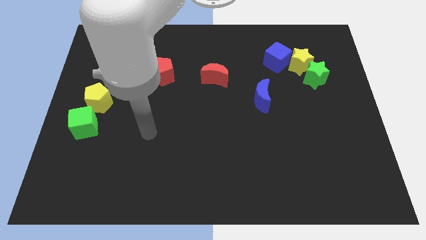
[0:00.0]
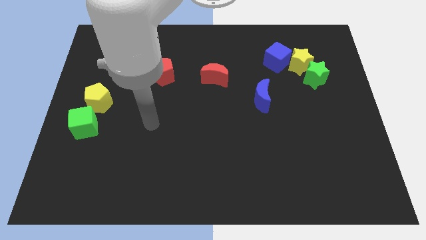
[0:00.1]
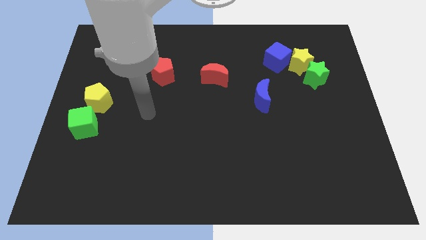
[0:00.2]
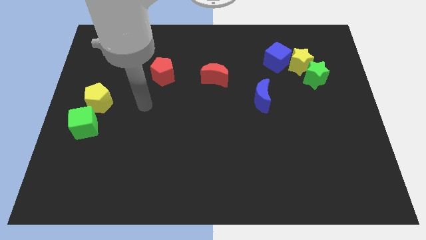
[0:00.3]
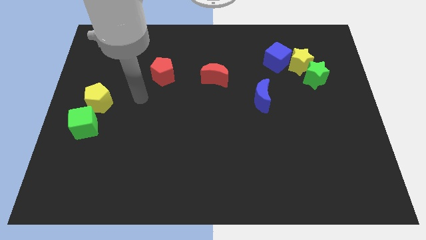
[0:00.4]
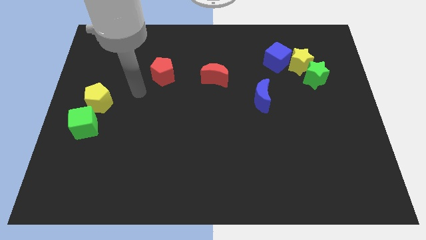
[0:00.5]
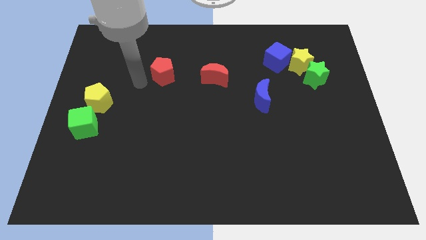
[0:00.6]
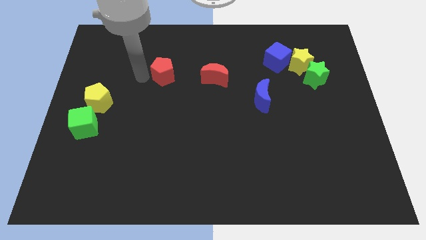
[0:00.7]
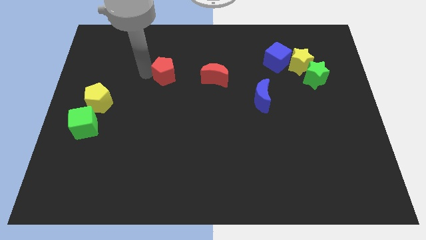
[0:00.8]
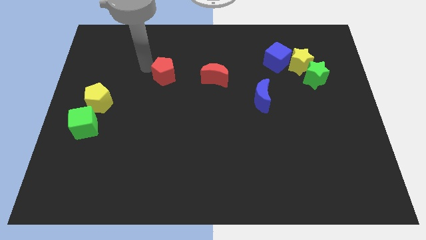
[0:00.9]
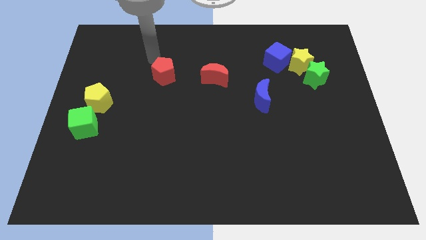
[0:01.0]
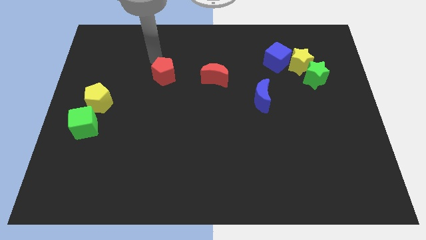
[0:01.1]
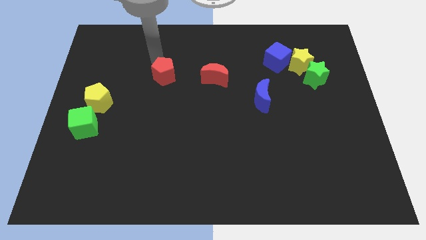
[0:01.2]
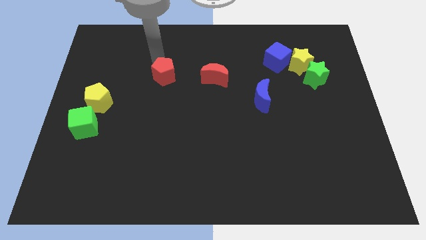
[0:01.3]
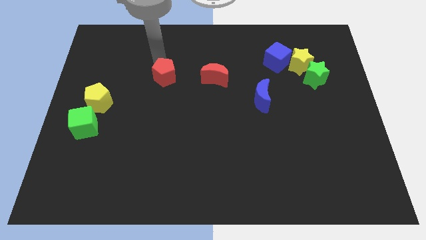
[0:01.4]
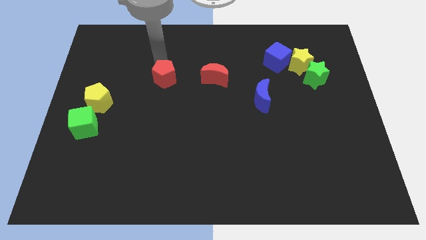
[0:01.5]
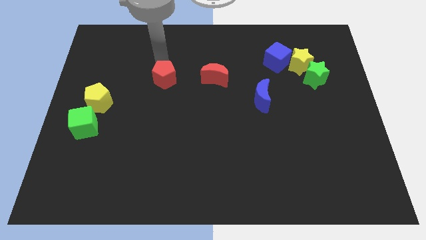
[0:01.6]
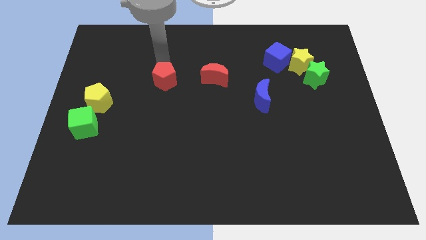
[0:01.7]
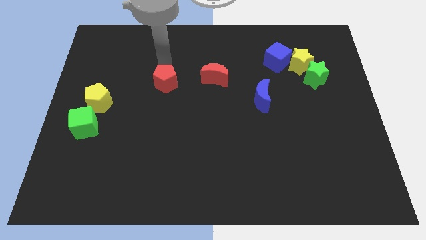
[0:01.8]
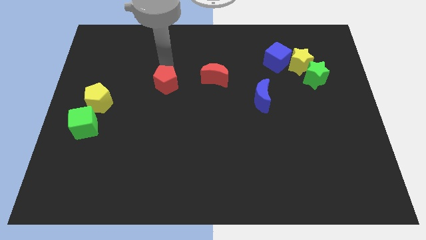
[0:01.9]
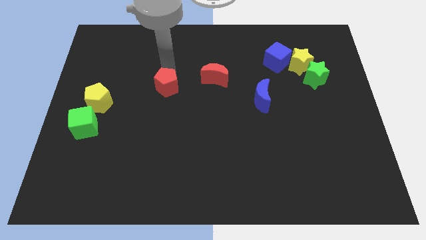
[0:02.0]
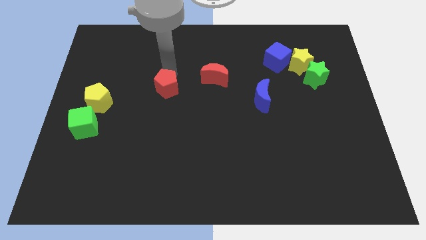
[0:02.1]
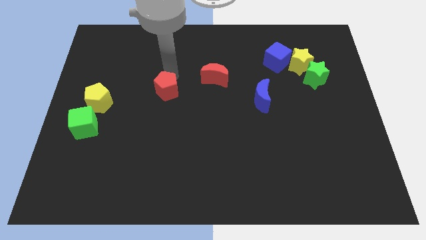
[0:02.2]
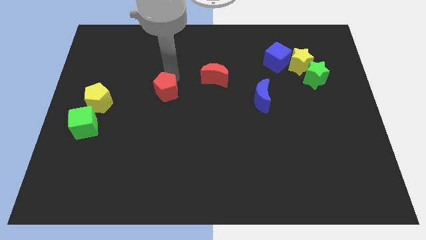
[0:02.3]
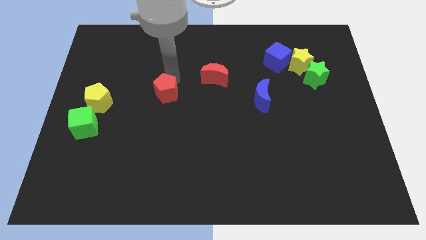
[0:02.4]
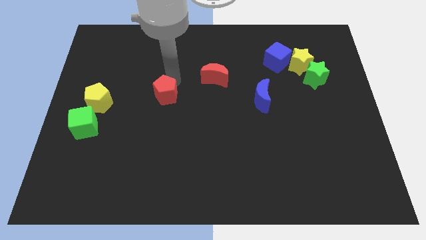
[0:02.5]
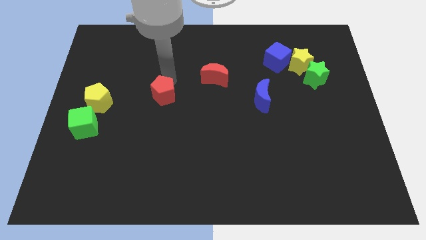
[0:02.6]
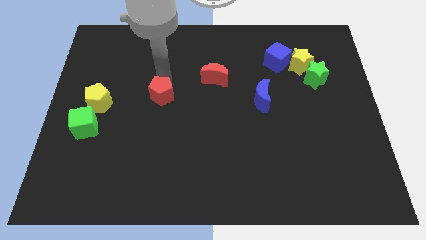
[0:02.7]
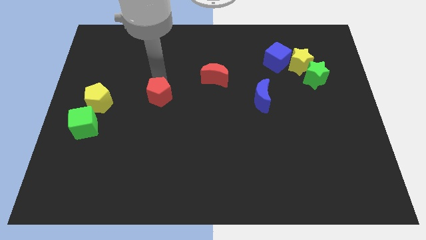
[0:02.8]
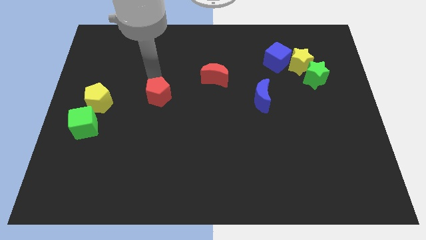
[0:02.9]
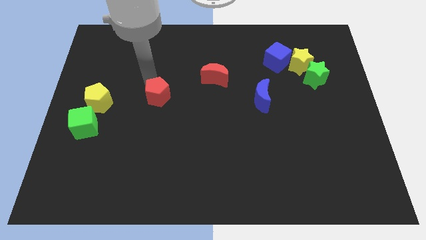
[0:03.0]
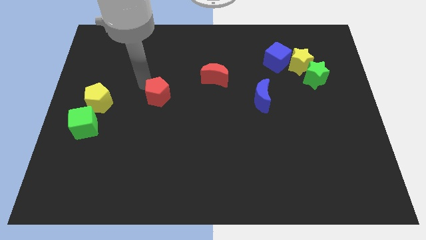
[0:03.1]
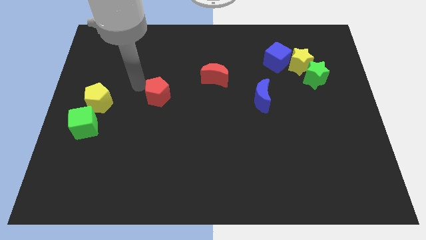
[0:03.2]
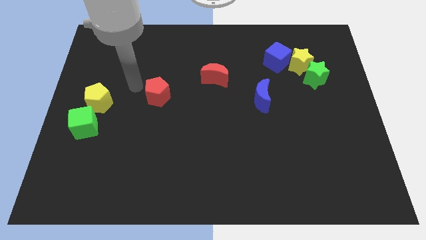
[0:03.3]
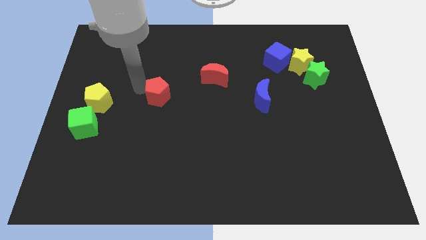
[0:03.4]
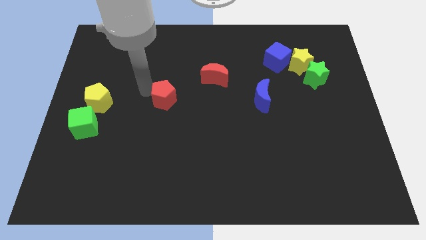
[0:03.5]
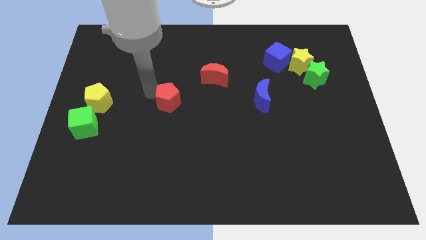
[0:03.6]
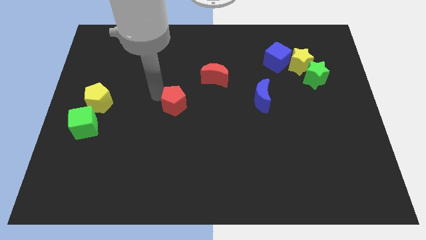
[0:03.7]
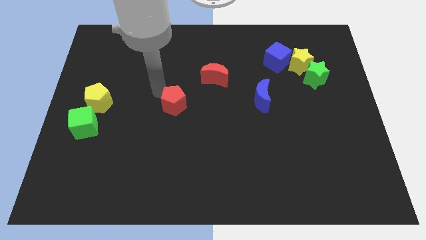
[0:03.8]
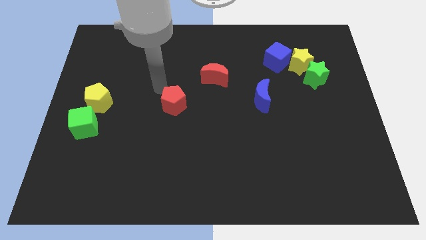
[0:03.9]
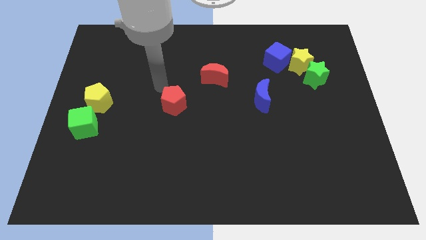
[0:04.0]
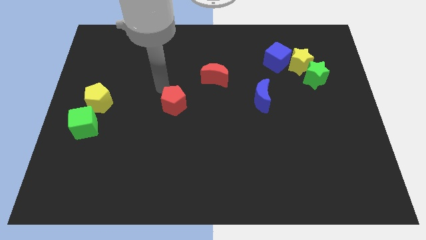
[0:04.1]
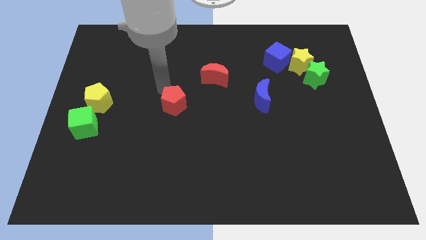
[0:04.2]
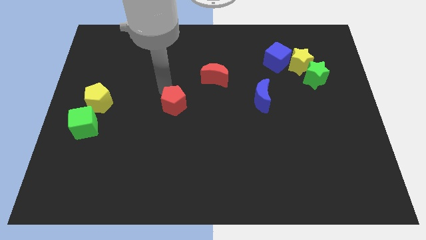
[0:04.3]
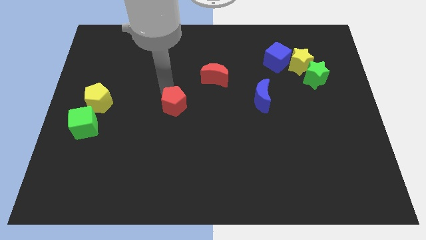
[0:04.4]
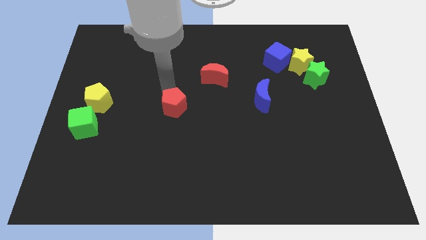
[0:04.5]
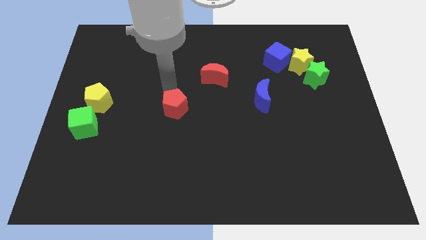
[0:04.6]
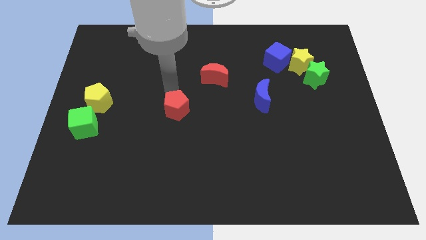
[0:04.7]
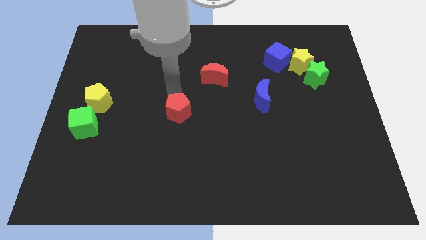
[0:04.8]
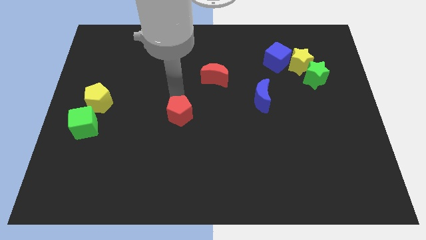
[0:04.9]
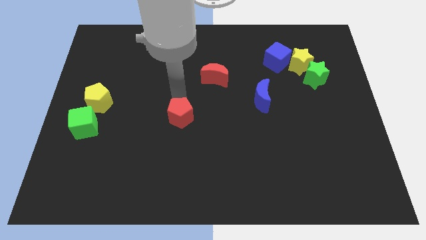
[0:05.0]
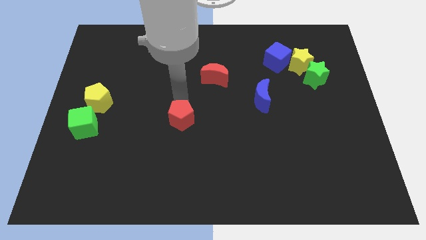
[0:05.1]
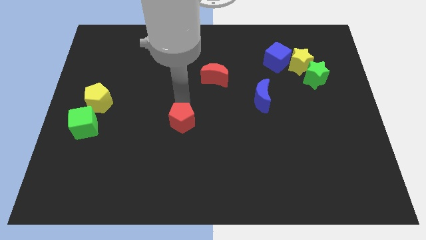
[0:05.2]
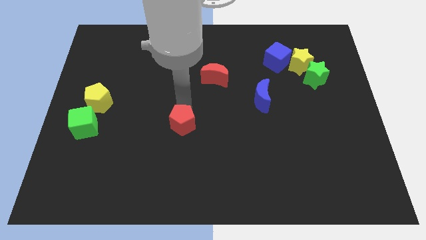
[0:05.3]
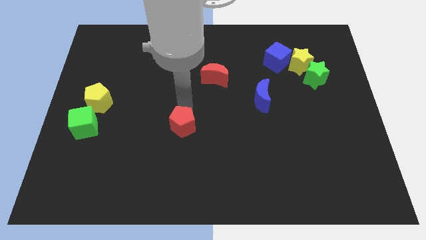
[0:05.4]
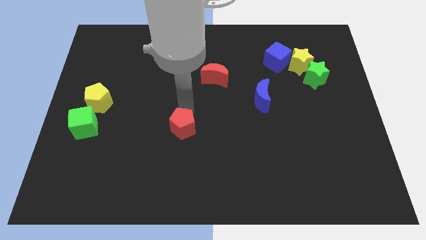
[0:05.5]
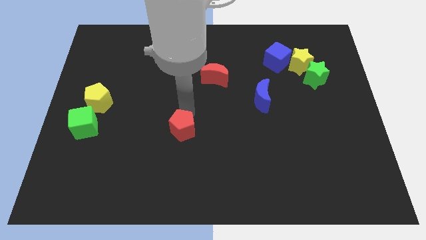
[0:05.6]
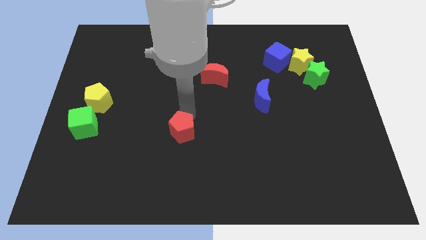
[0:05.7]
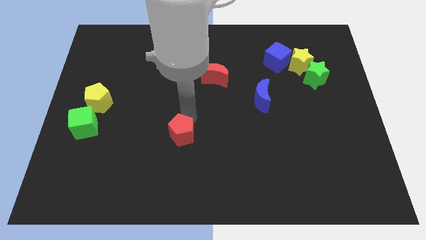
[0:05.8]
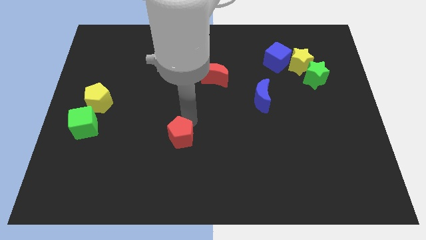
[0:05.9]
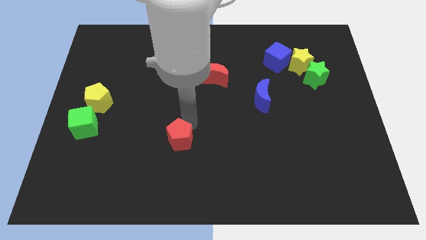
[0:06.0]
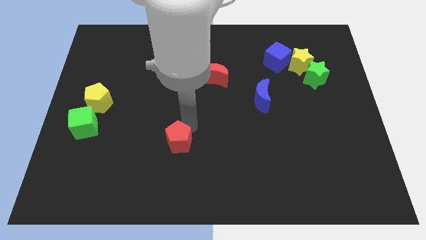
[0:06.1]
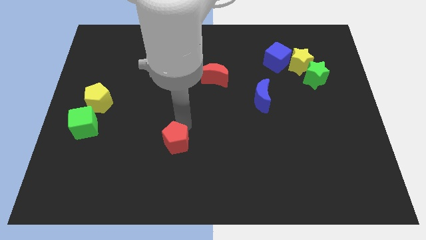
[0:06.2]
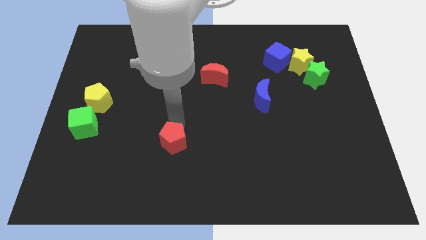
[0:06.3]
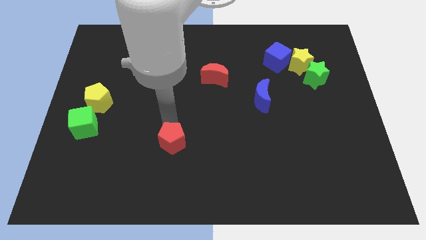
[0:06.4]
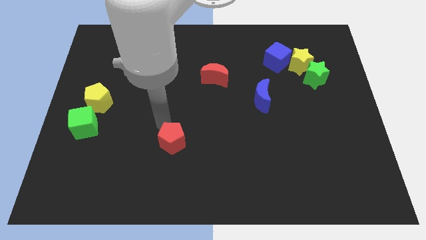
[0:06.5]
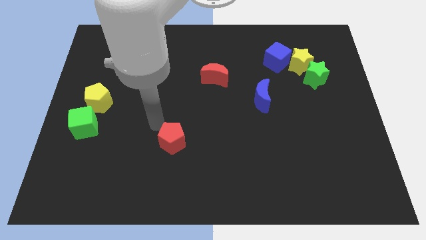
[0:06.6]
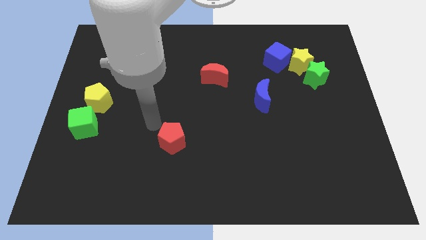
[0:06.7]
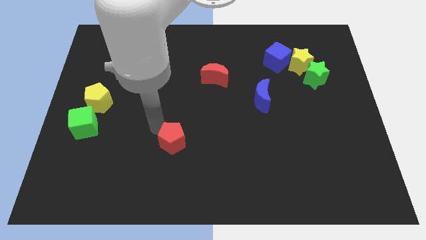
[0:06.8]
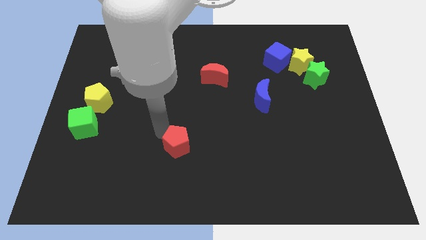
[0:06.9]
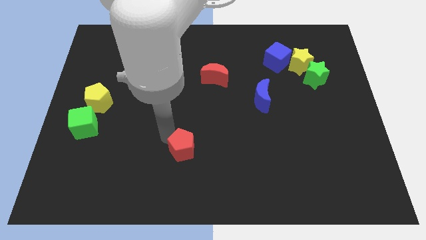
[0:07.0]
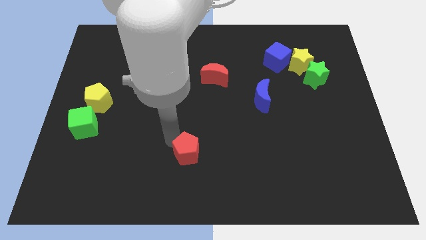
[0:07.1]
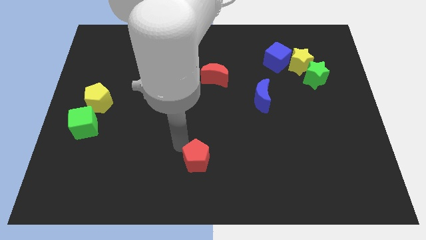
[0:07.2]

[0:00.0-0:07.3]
push the red pentagon to the bottom
